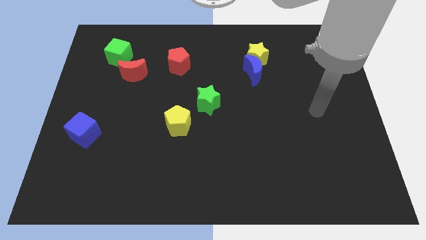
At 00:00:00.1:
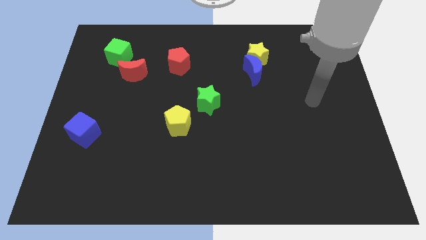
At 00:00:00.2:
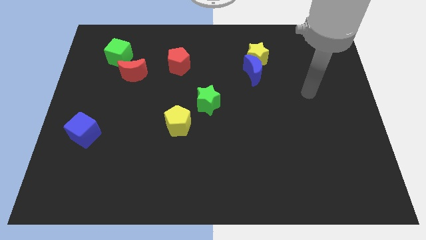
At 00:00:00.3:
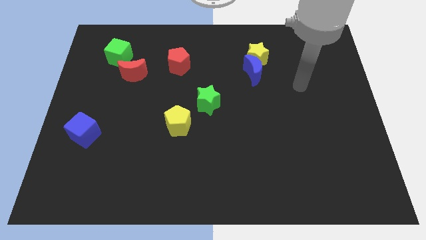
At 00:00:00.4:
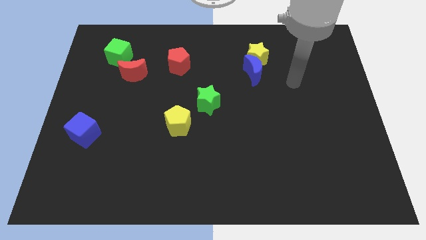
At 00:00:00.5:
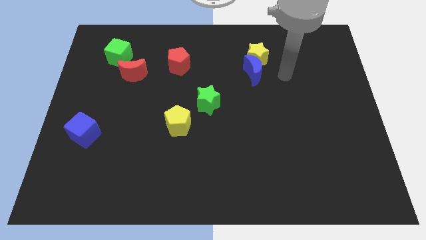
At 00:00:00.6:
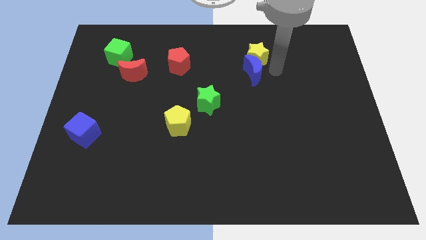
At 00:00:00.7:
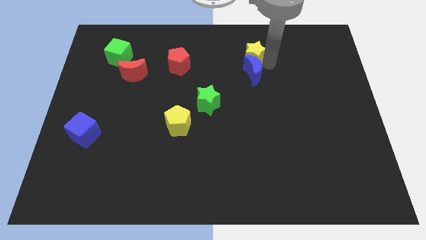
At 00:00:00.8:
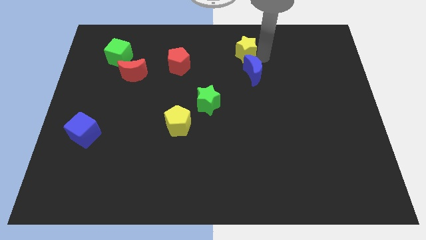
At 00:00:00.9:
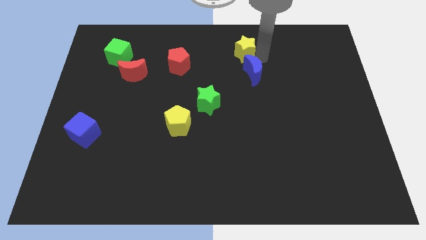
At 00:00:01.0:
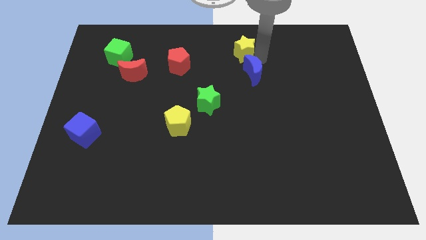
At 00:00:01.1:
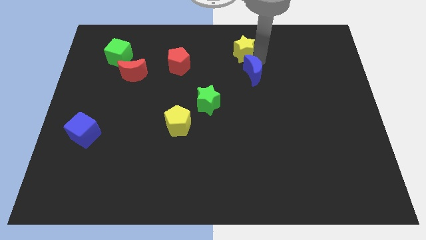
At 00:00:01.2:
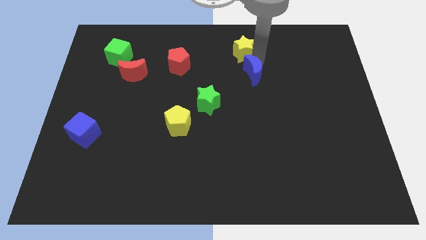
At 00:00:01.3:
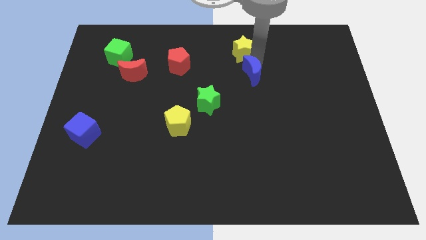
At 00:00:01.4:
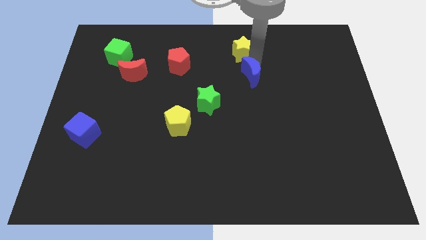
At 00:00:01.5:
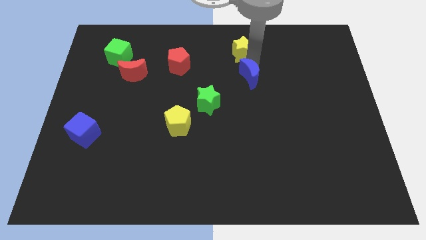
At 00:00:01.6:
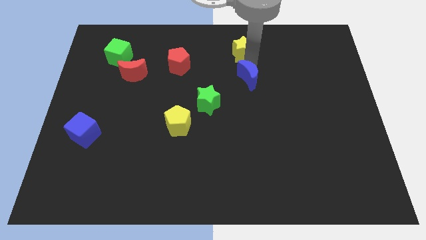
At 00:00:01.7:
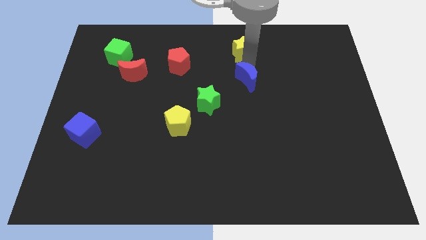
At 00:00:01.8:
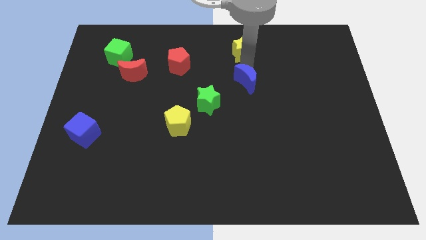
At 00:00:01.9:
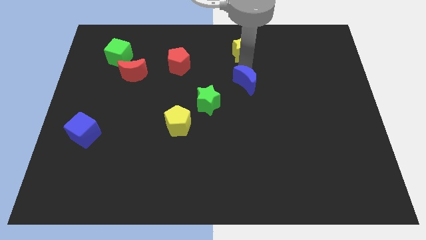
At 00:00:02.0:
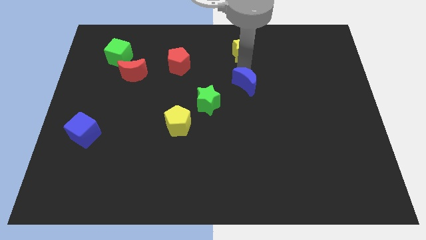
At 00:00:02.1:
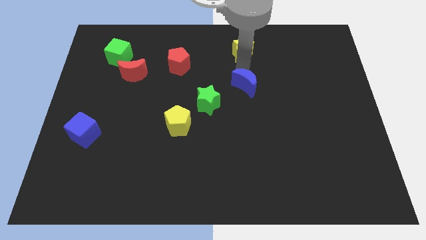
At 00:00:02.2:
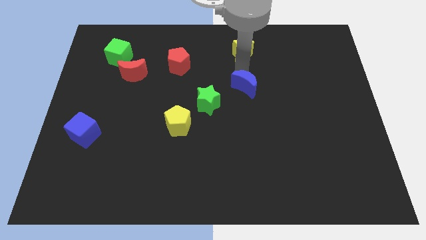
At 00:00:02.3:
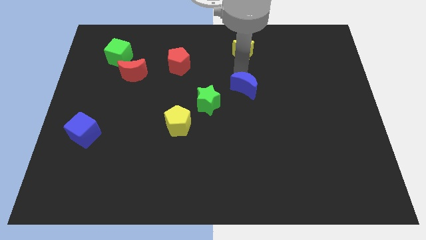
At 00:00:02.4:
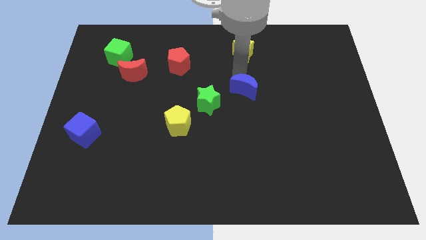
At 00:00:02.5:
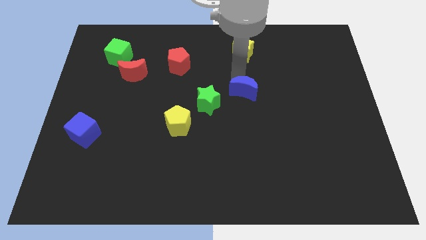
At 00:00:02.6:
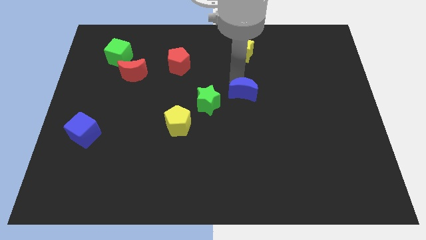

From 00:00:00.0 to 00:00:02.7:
slightly slide the blue moon down and left

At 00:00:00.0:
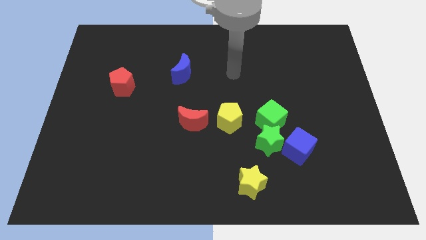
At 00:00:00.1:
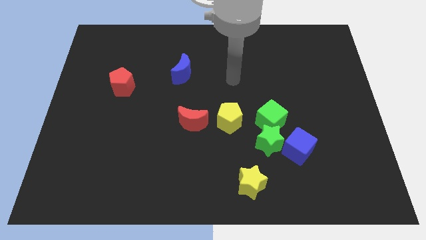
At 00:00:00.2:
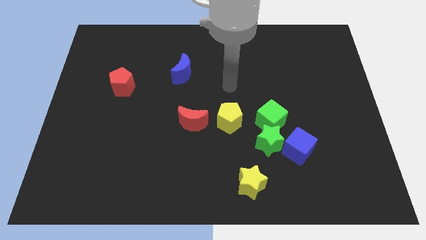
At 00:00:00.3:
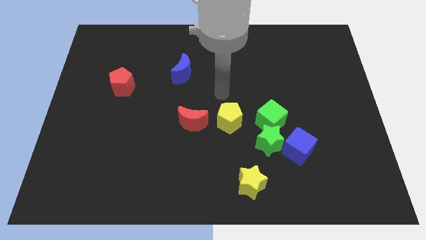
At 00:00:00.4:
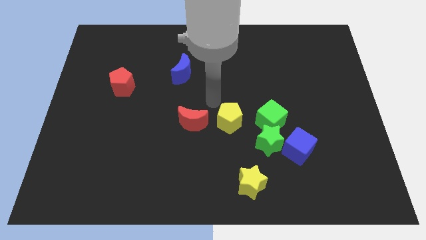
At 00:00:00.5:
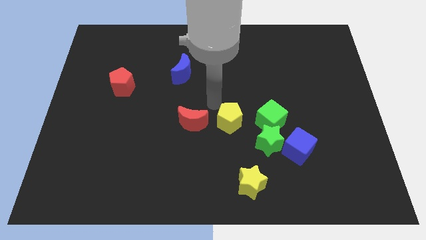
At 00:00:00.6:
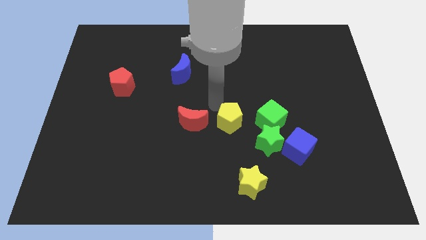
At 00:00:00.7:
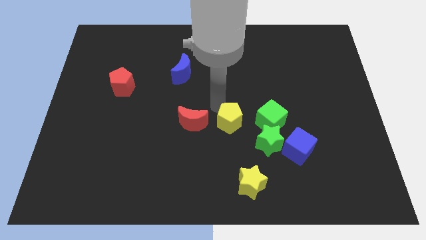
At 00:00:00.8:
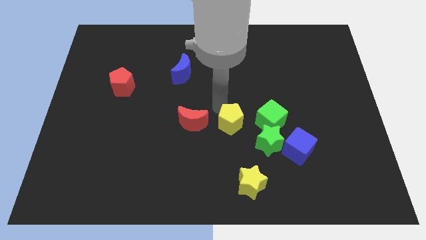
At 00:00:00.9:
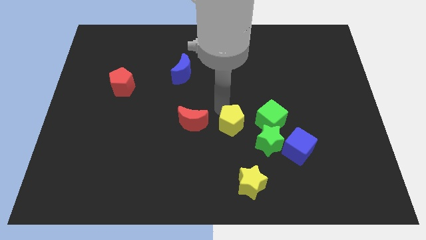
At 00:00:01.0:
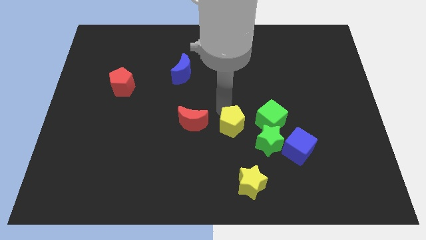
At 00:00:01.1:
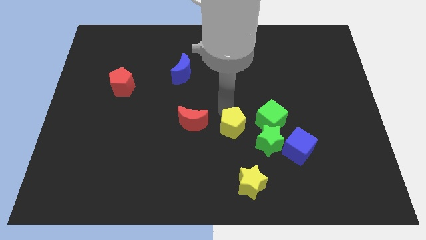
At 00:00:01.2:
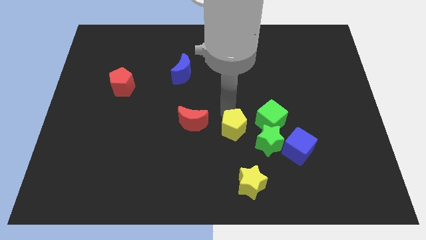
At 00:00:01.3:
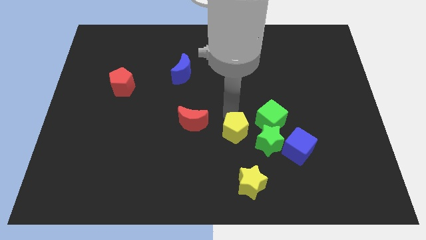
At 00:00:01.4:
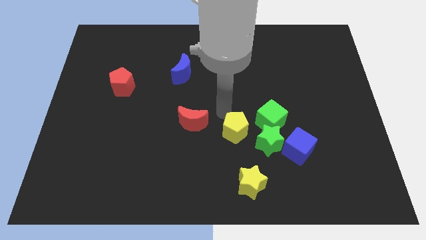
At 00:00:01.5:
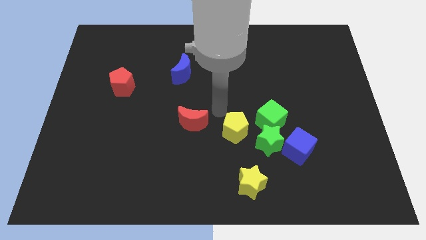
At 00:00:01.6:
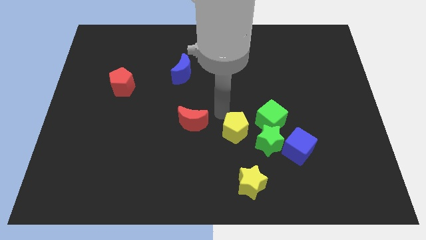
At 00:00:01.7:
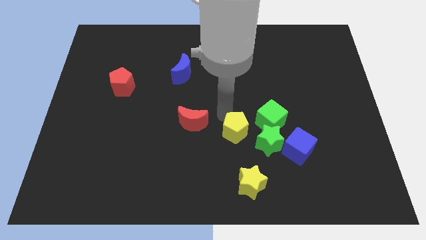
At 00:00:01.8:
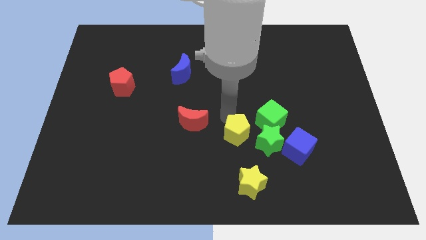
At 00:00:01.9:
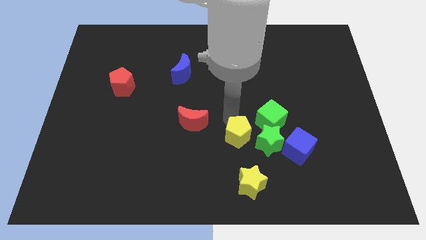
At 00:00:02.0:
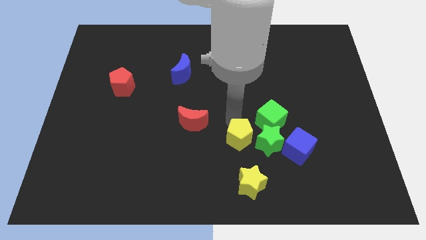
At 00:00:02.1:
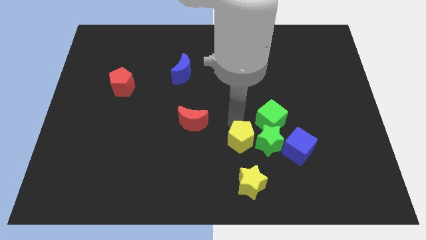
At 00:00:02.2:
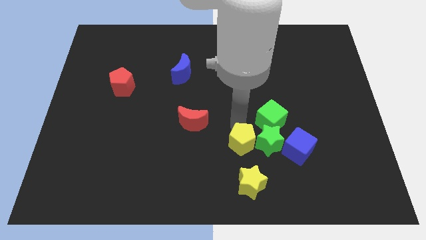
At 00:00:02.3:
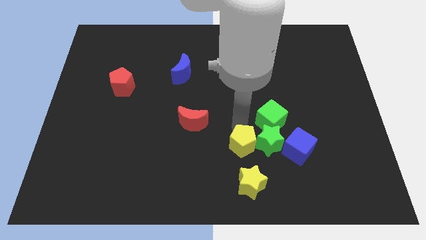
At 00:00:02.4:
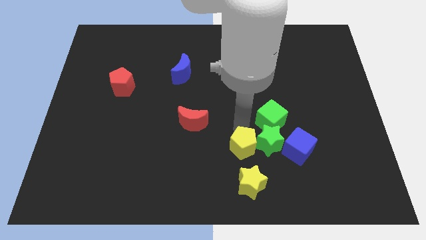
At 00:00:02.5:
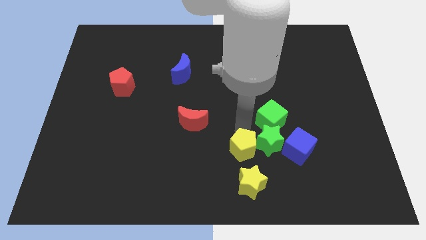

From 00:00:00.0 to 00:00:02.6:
slightly move the yellow pentagon downwards and to the right

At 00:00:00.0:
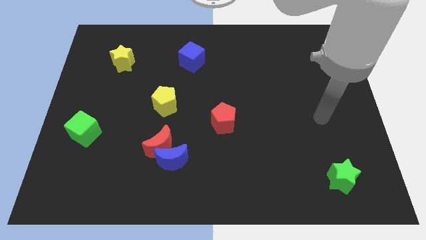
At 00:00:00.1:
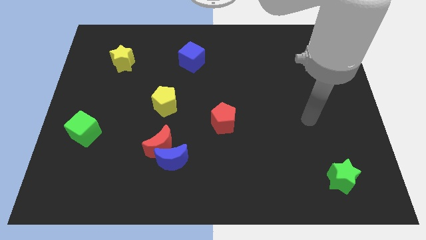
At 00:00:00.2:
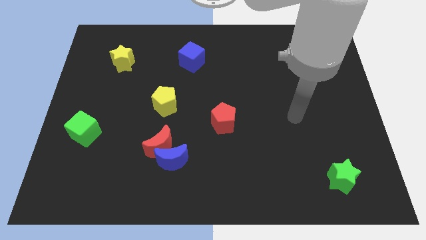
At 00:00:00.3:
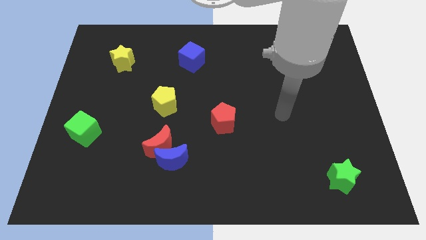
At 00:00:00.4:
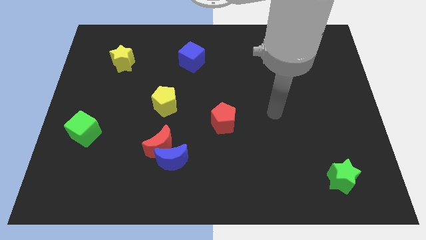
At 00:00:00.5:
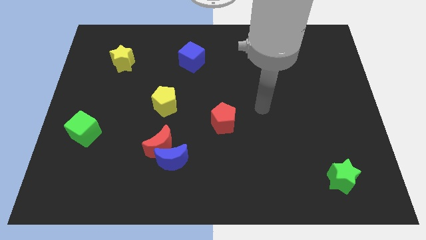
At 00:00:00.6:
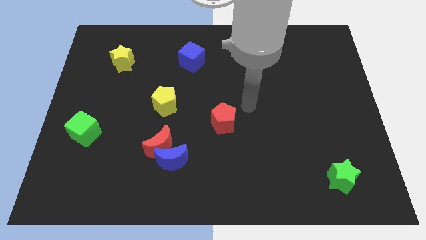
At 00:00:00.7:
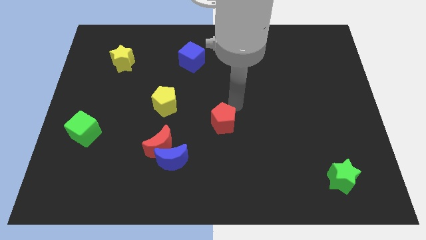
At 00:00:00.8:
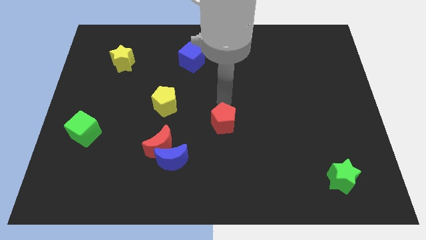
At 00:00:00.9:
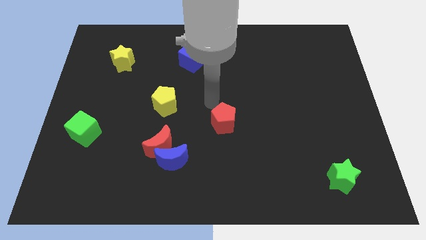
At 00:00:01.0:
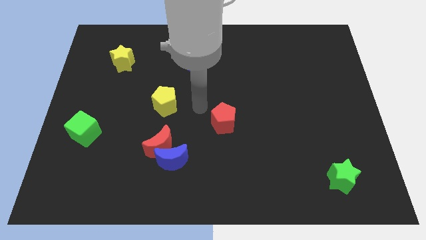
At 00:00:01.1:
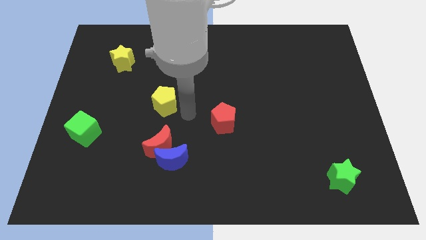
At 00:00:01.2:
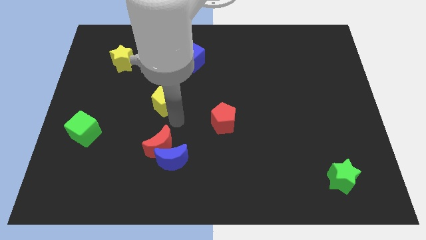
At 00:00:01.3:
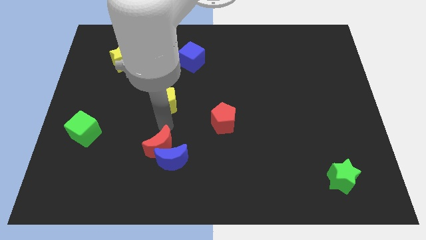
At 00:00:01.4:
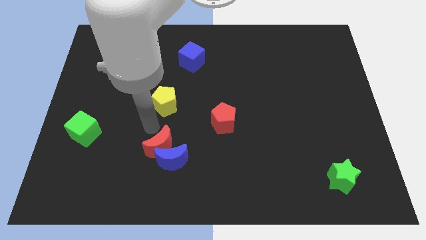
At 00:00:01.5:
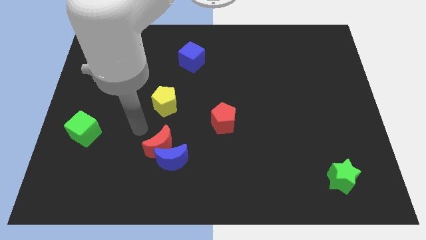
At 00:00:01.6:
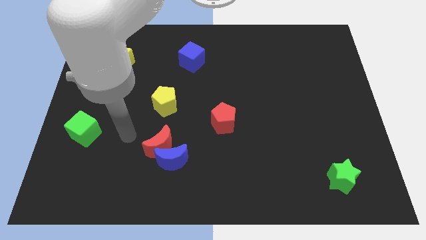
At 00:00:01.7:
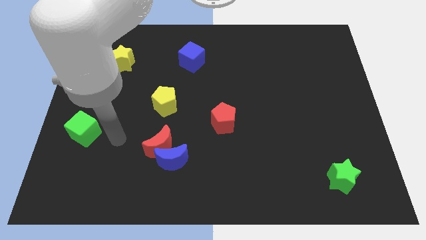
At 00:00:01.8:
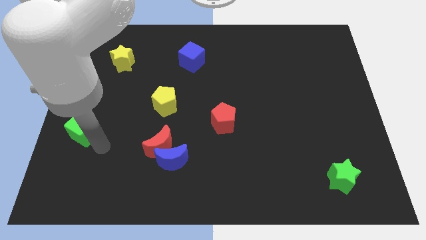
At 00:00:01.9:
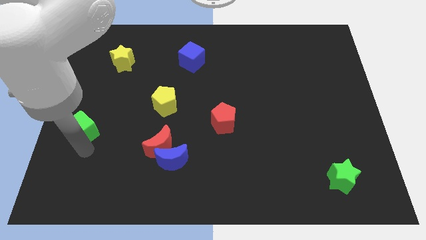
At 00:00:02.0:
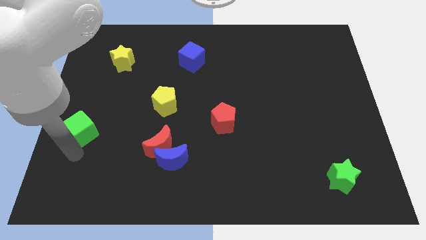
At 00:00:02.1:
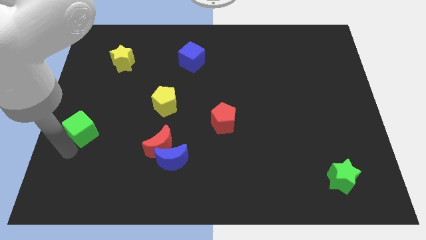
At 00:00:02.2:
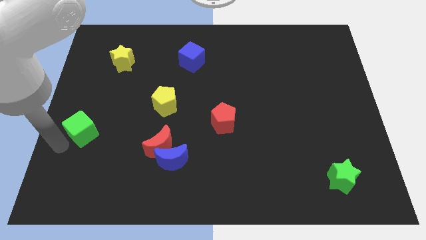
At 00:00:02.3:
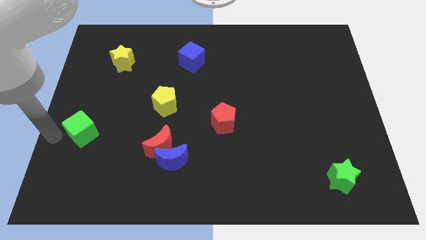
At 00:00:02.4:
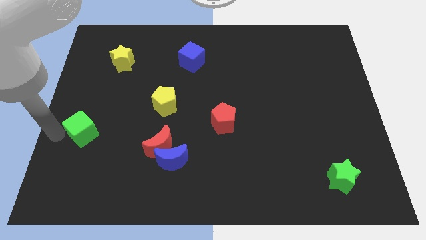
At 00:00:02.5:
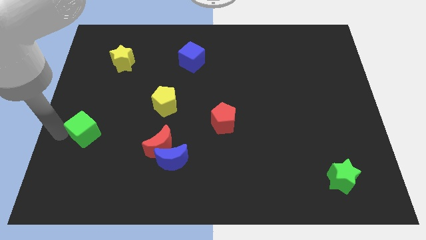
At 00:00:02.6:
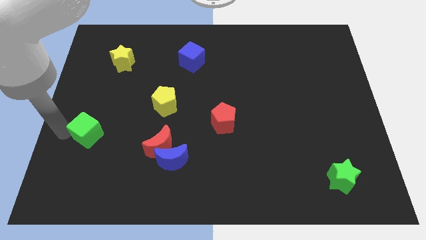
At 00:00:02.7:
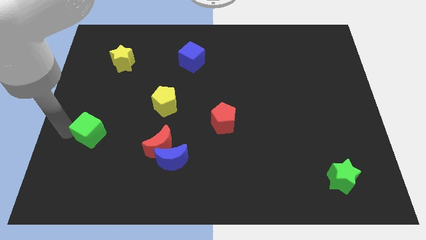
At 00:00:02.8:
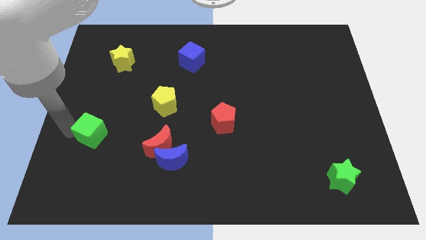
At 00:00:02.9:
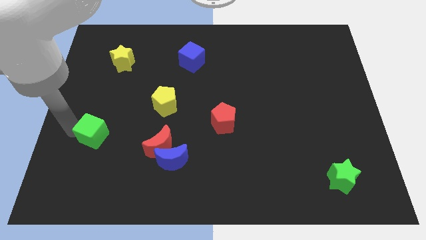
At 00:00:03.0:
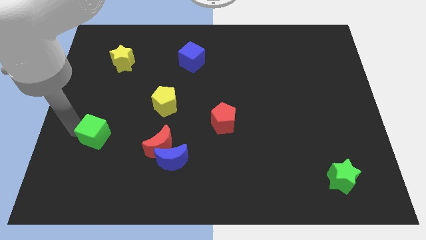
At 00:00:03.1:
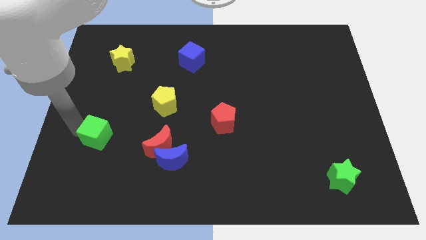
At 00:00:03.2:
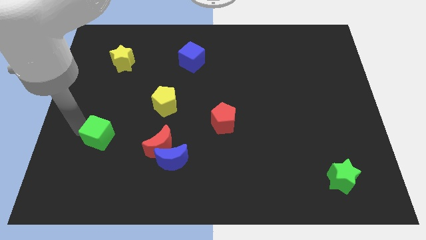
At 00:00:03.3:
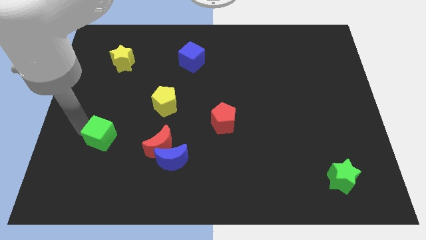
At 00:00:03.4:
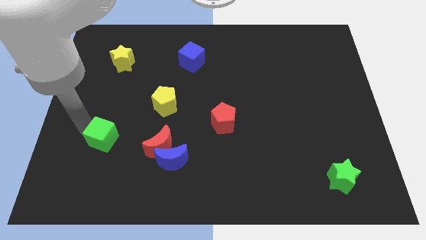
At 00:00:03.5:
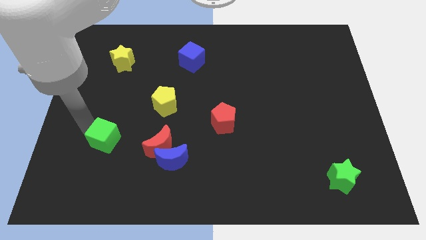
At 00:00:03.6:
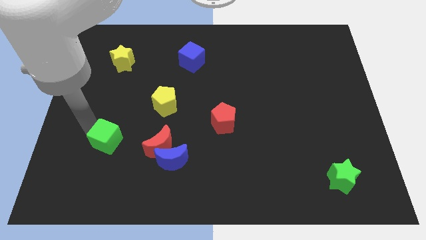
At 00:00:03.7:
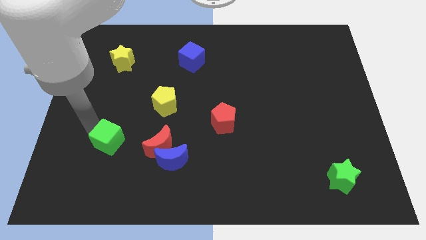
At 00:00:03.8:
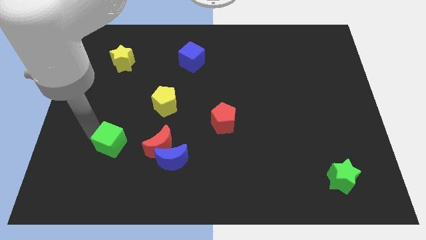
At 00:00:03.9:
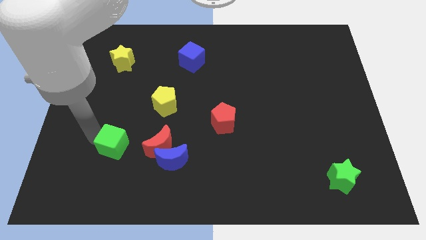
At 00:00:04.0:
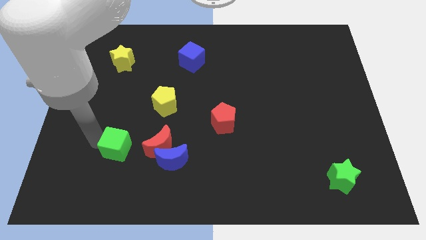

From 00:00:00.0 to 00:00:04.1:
move the green cube right somewhat
